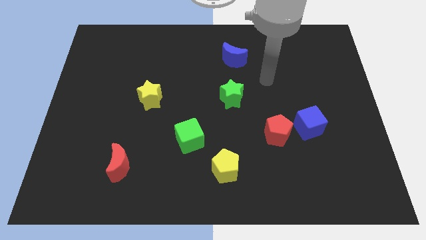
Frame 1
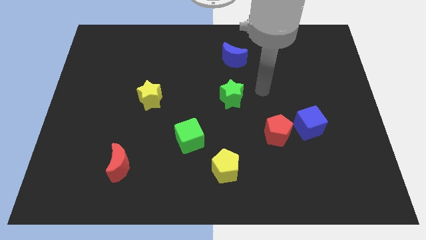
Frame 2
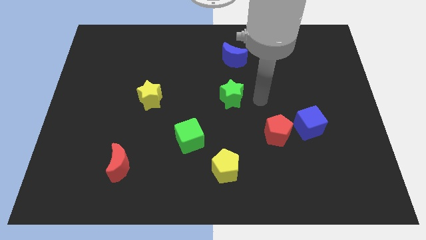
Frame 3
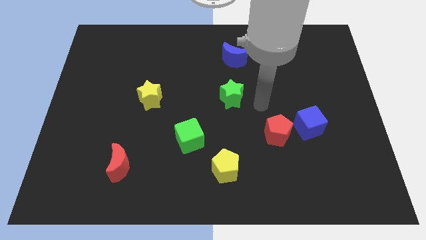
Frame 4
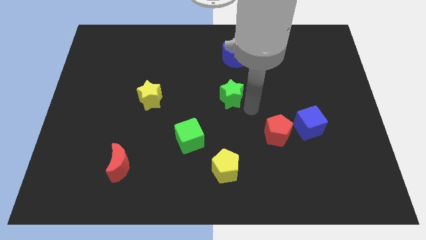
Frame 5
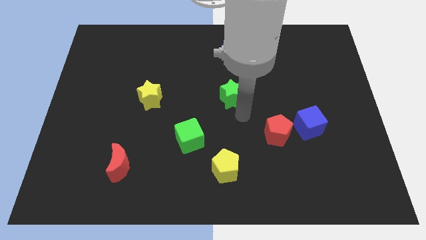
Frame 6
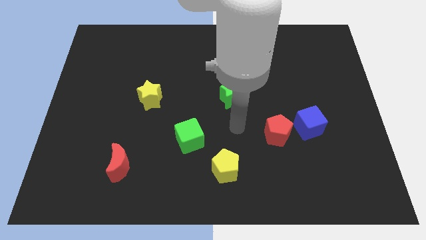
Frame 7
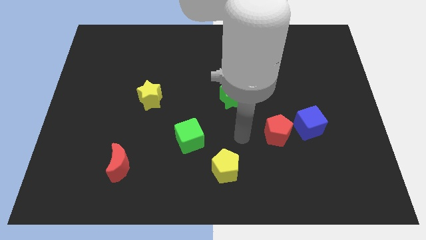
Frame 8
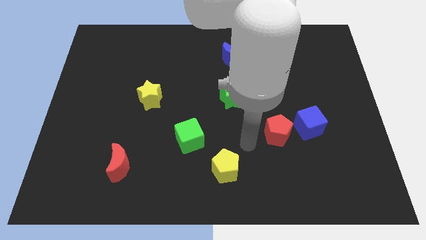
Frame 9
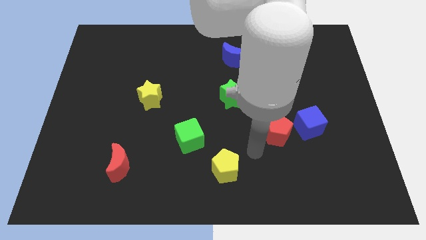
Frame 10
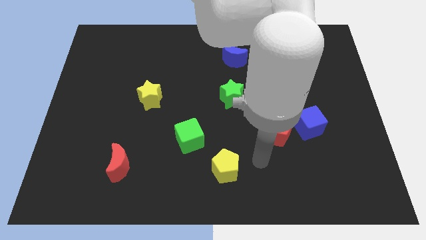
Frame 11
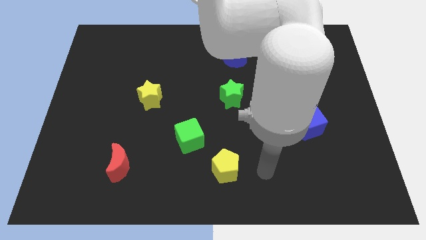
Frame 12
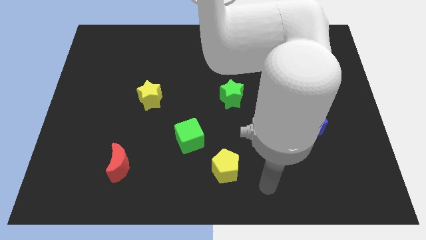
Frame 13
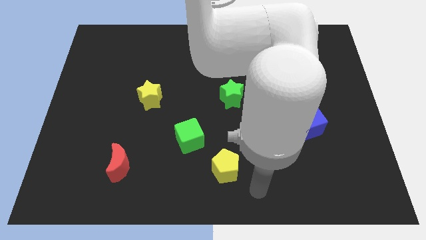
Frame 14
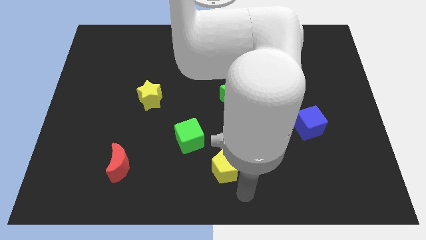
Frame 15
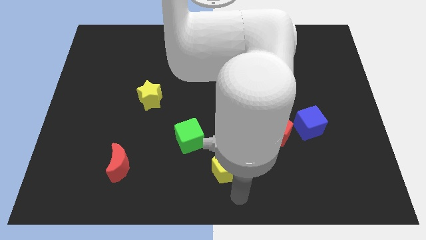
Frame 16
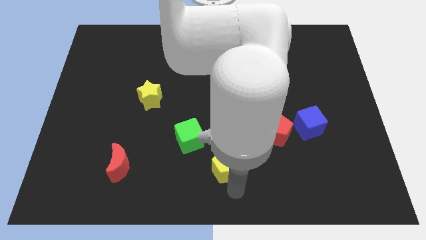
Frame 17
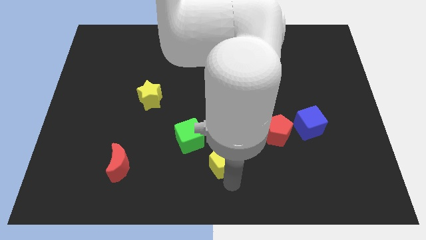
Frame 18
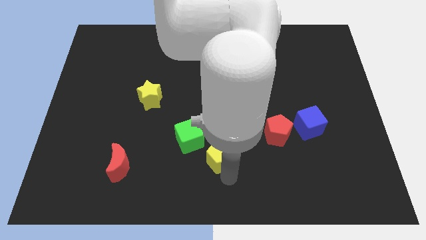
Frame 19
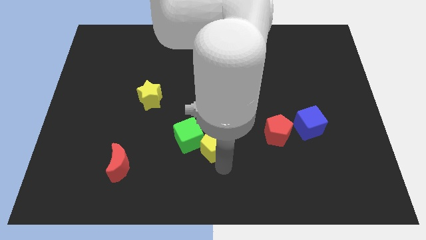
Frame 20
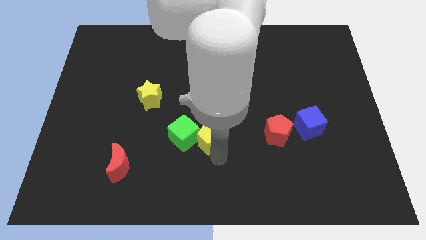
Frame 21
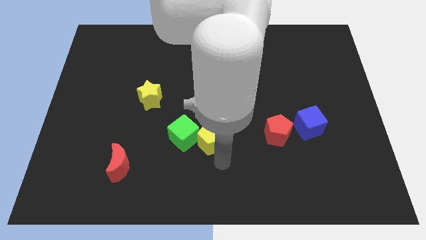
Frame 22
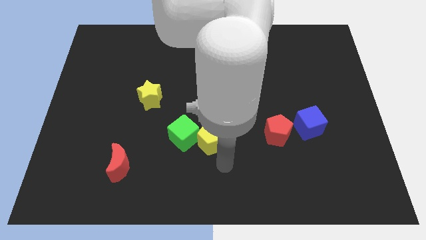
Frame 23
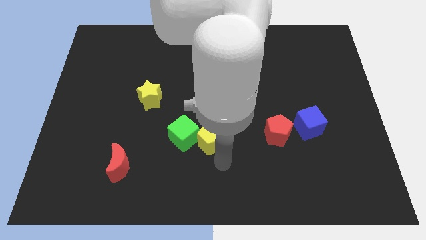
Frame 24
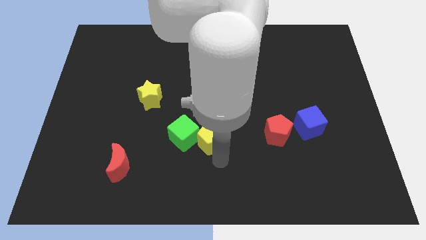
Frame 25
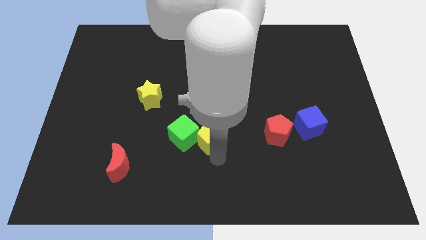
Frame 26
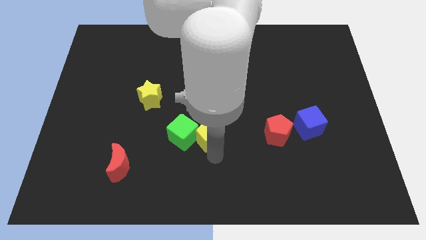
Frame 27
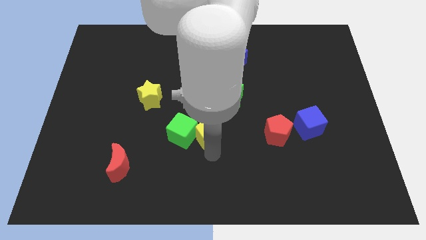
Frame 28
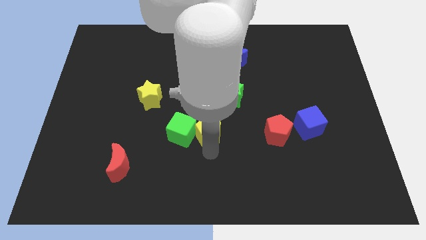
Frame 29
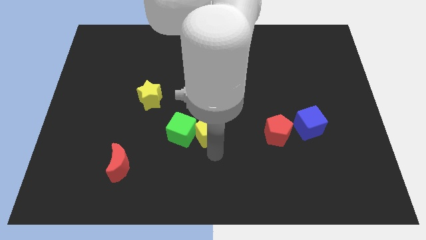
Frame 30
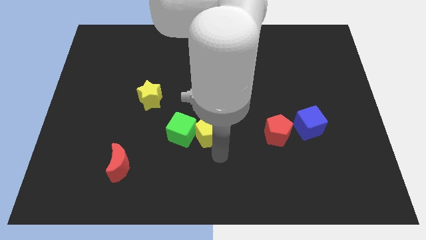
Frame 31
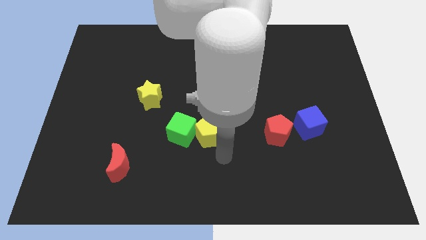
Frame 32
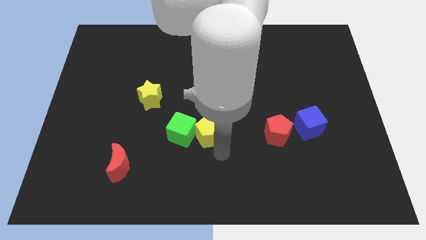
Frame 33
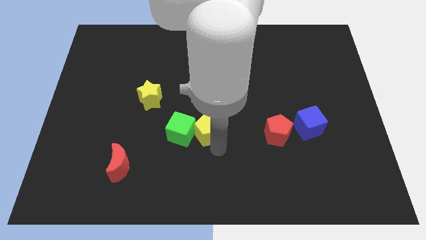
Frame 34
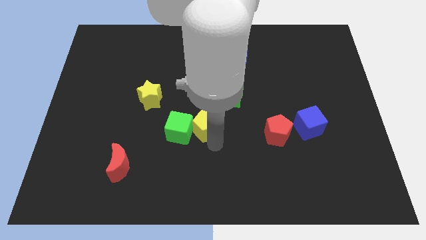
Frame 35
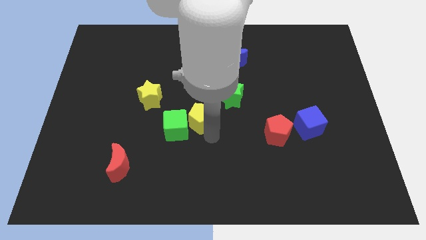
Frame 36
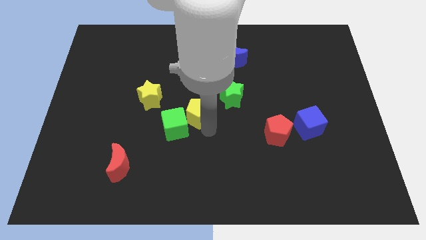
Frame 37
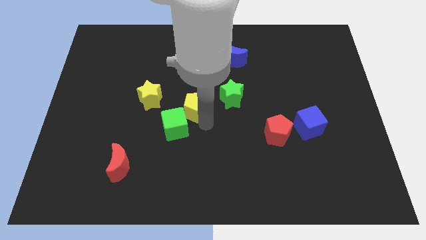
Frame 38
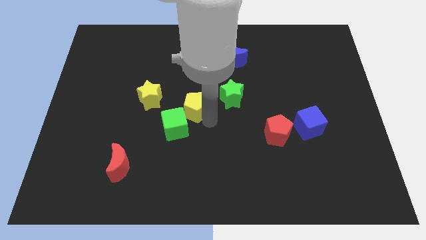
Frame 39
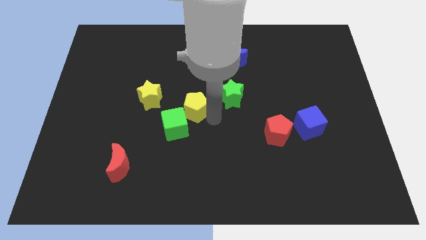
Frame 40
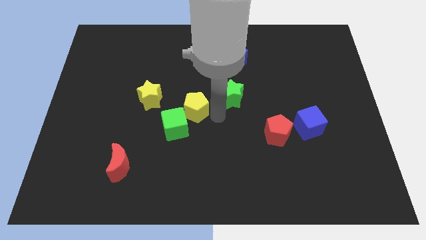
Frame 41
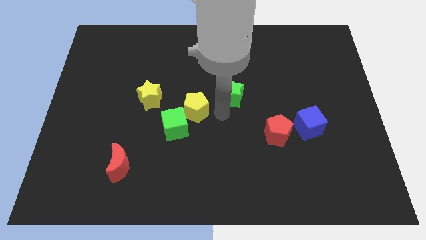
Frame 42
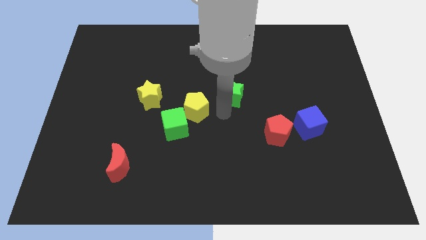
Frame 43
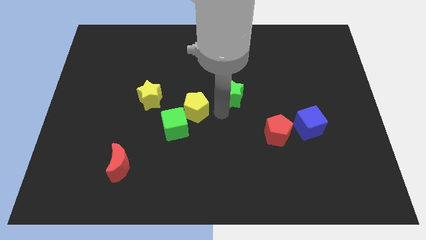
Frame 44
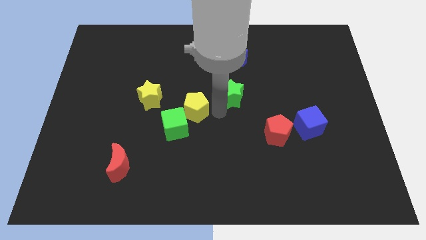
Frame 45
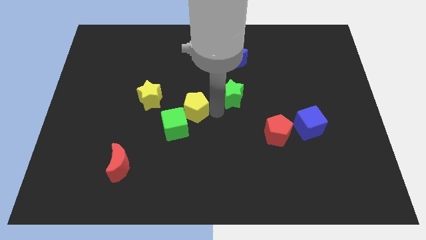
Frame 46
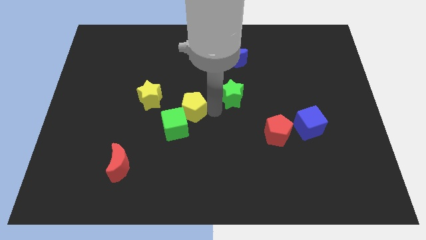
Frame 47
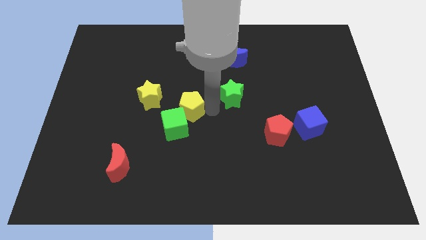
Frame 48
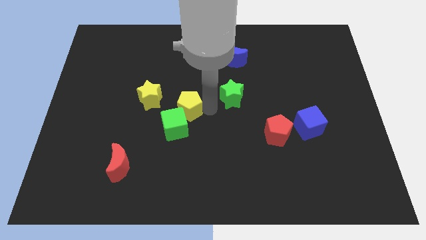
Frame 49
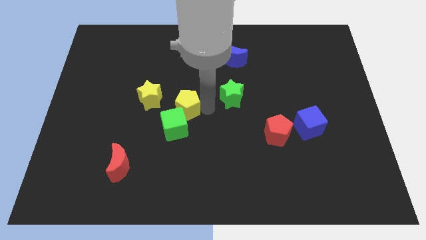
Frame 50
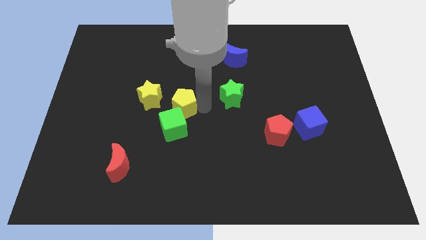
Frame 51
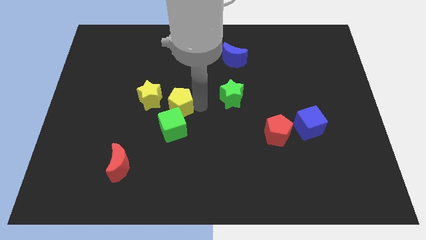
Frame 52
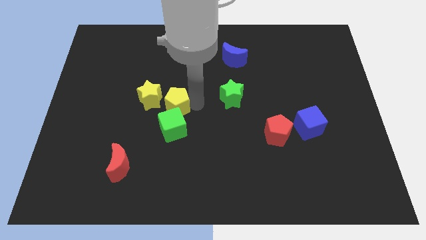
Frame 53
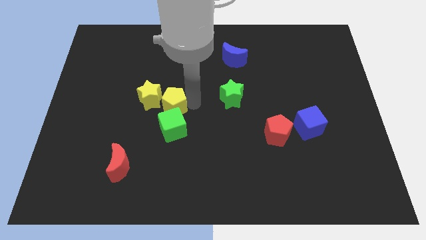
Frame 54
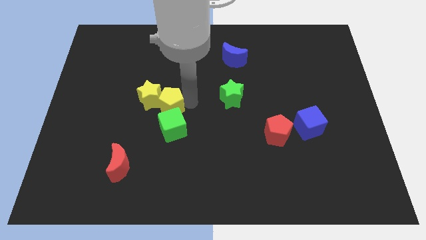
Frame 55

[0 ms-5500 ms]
move the yellow pentagon close to the yellow star

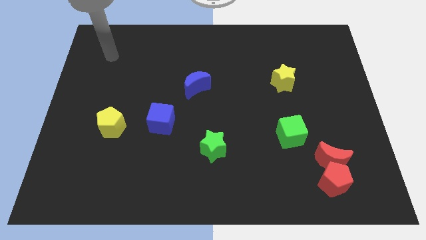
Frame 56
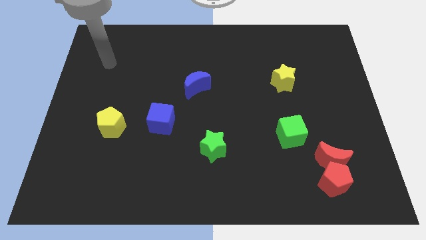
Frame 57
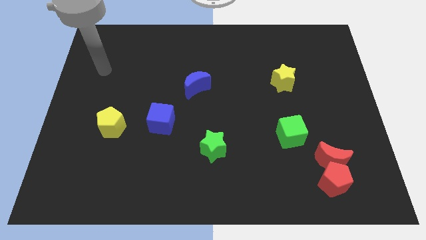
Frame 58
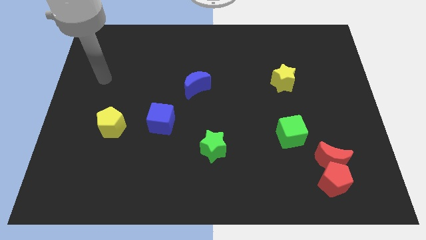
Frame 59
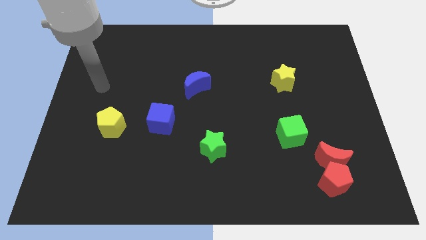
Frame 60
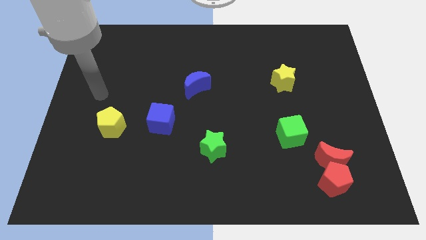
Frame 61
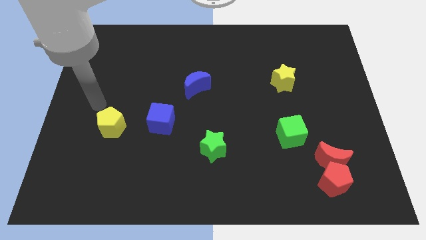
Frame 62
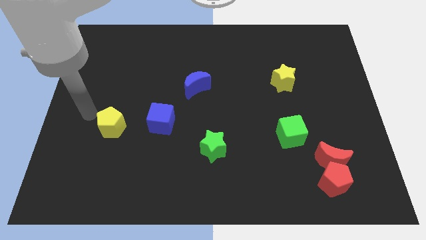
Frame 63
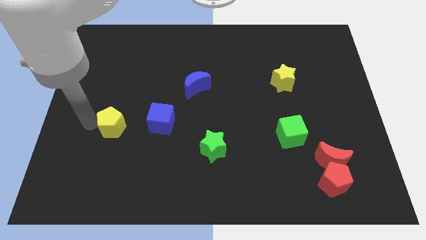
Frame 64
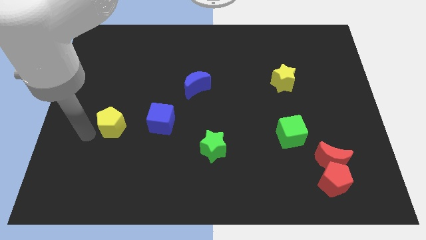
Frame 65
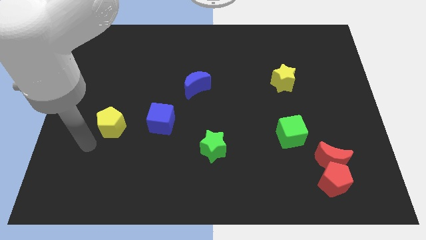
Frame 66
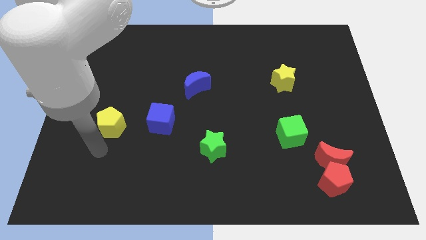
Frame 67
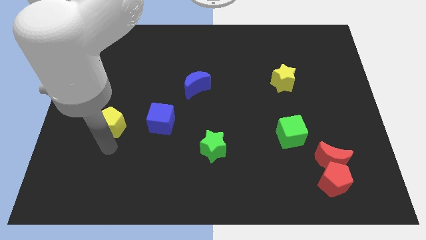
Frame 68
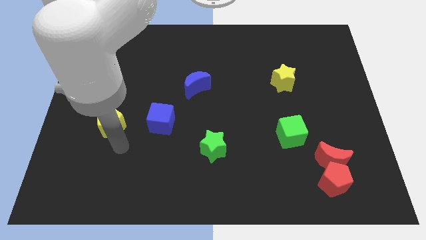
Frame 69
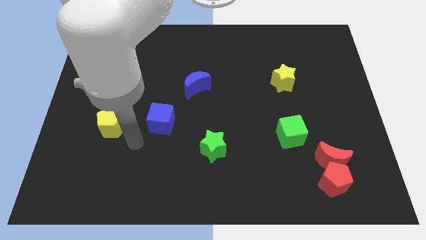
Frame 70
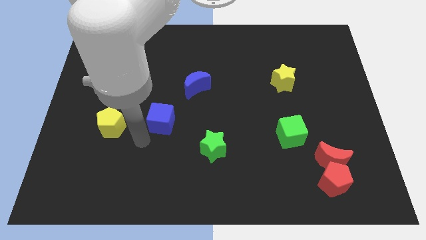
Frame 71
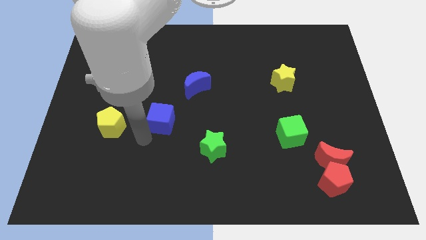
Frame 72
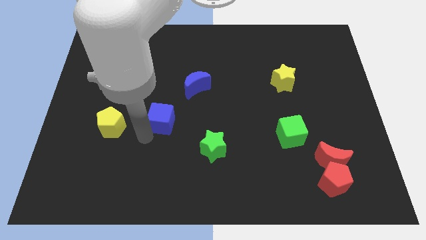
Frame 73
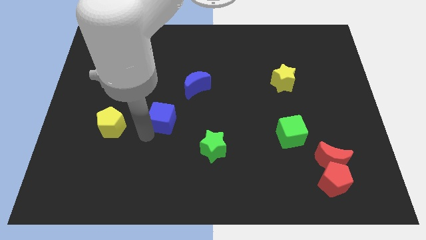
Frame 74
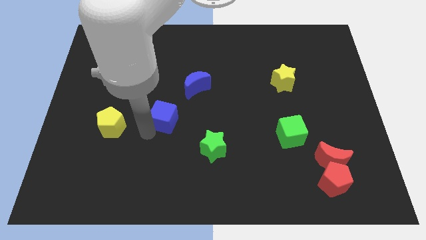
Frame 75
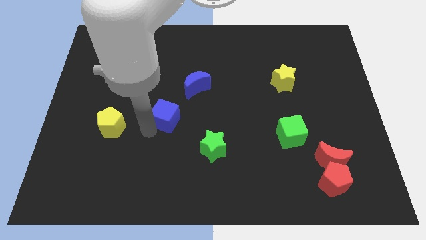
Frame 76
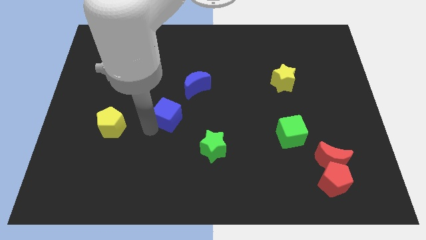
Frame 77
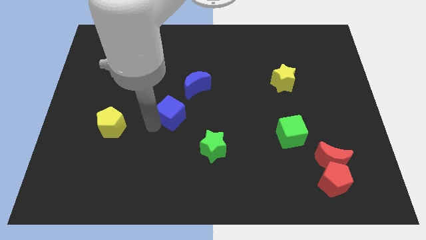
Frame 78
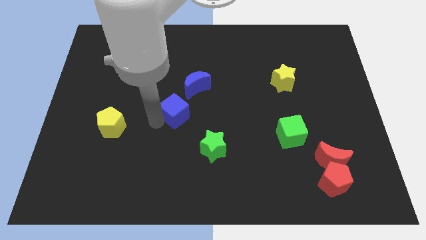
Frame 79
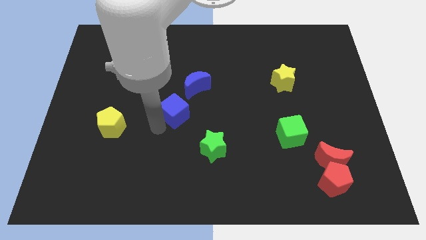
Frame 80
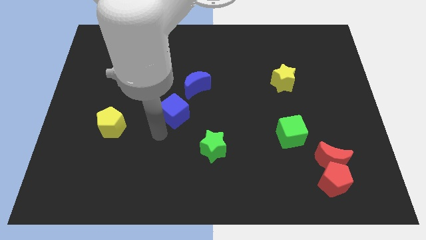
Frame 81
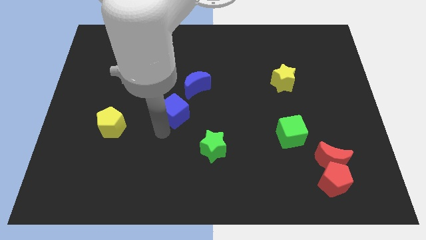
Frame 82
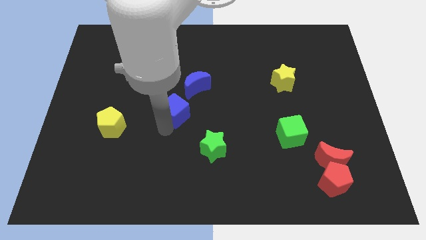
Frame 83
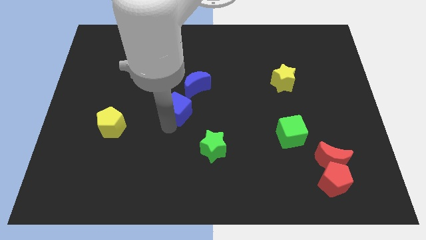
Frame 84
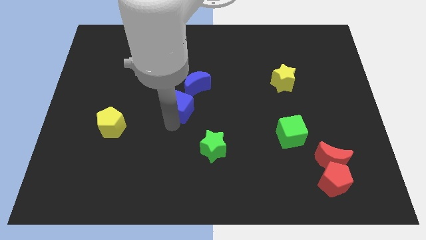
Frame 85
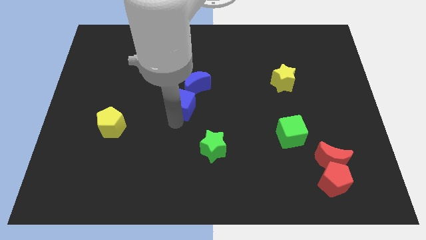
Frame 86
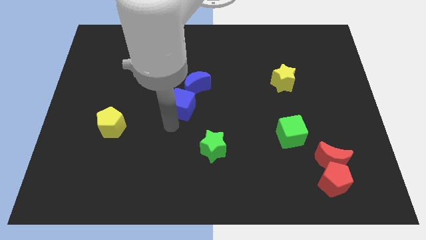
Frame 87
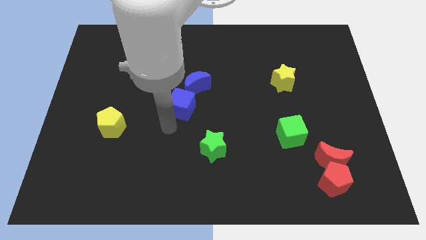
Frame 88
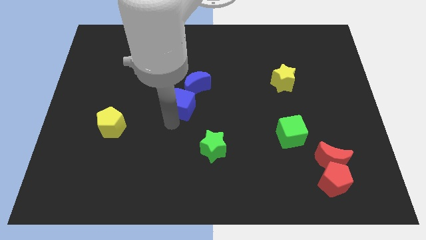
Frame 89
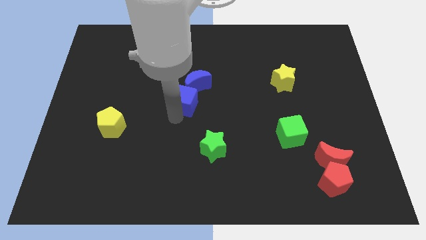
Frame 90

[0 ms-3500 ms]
put the blue cube towards the blue moon
